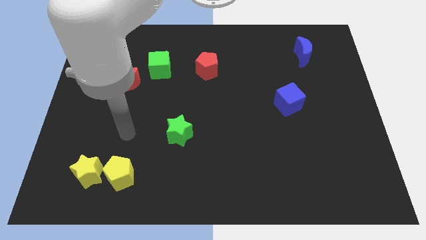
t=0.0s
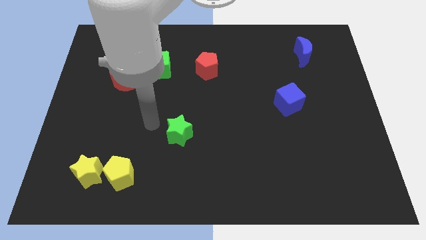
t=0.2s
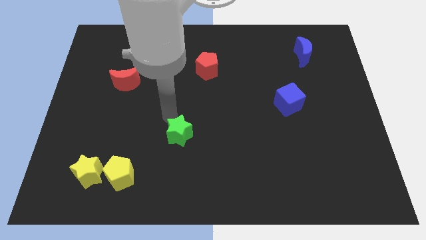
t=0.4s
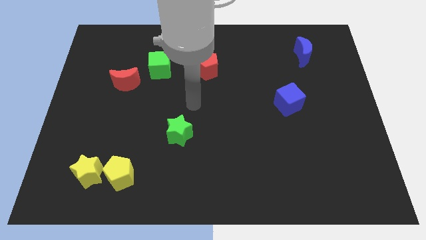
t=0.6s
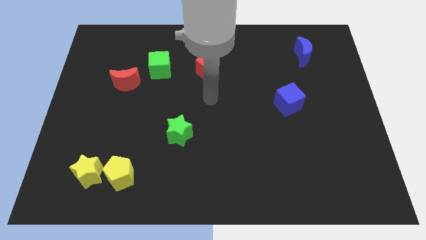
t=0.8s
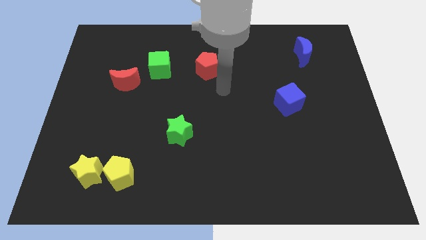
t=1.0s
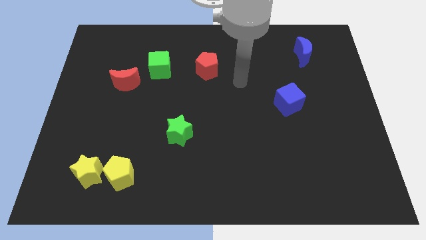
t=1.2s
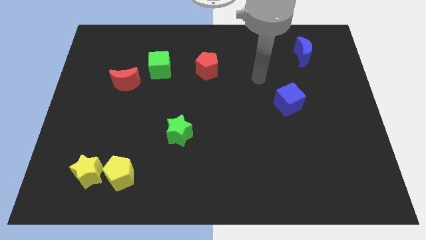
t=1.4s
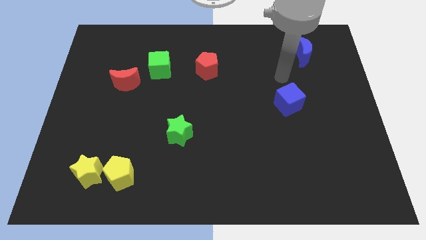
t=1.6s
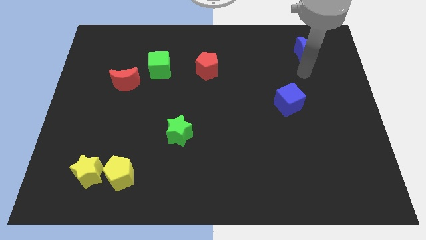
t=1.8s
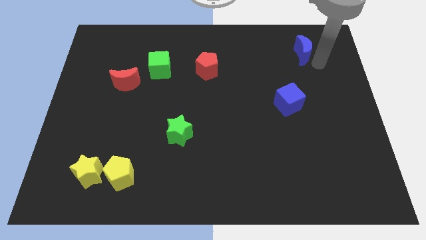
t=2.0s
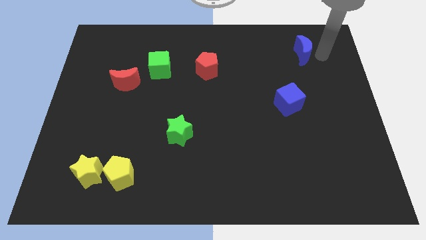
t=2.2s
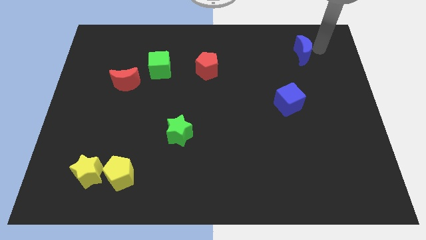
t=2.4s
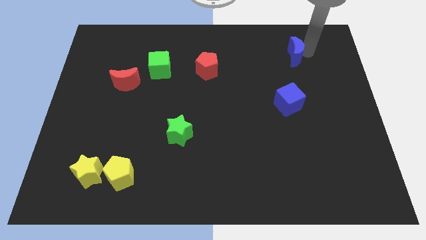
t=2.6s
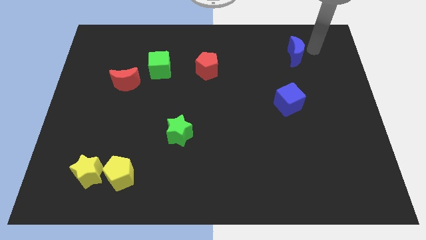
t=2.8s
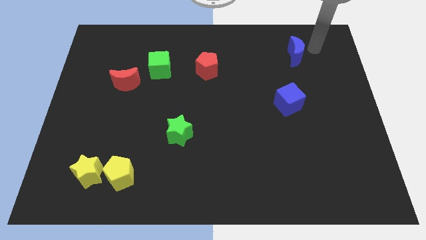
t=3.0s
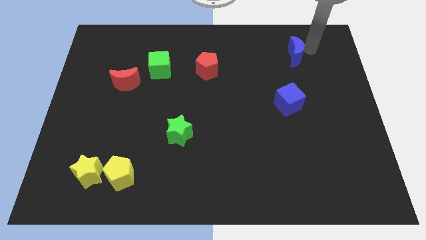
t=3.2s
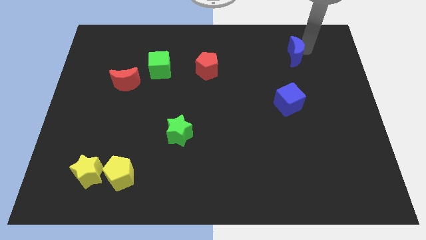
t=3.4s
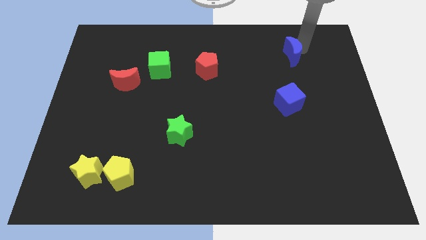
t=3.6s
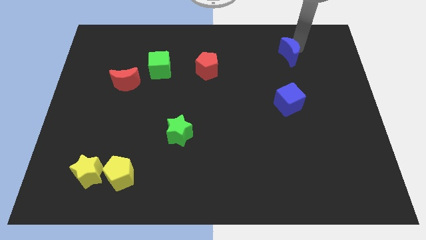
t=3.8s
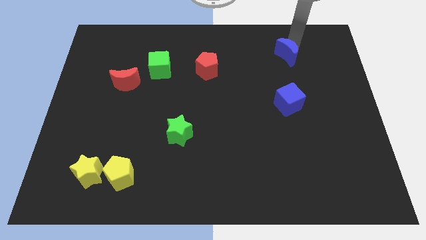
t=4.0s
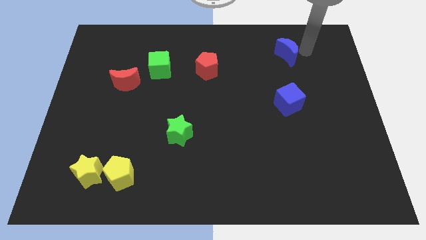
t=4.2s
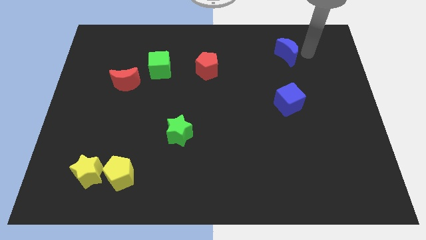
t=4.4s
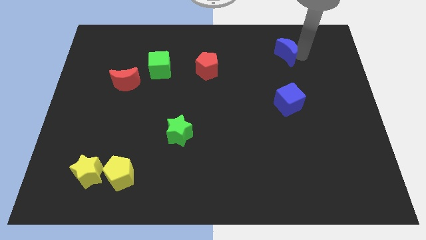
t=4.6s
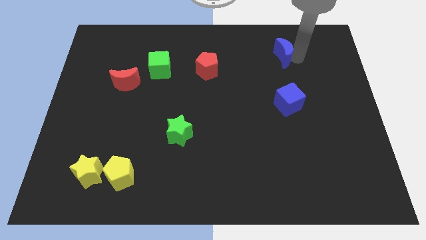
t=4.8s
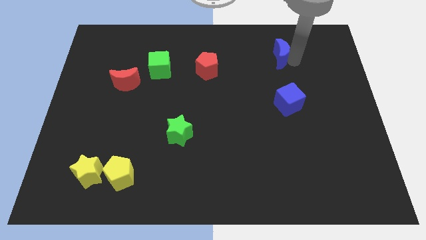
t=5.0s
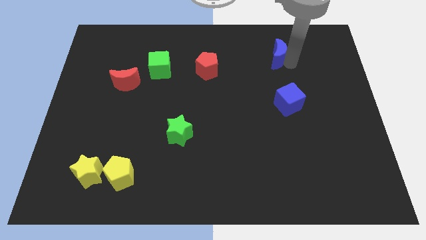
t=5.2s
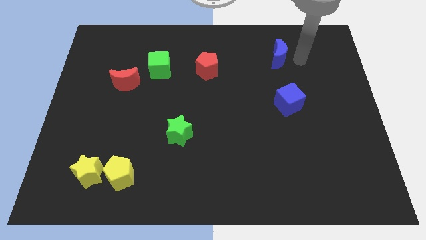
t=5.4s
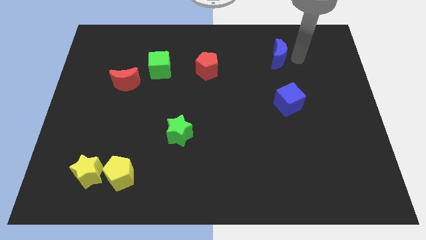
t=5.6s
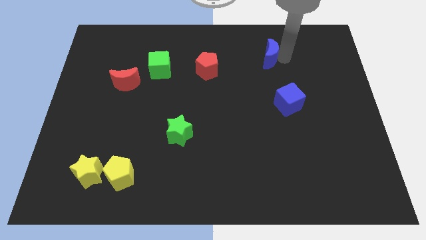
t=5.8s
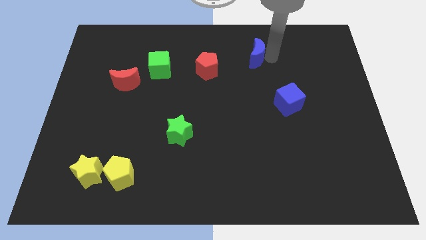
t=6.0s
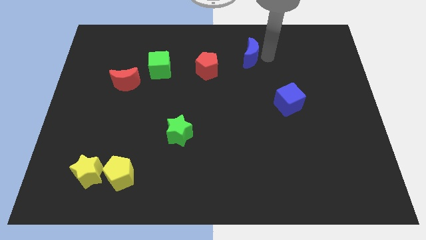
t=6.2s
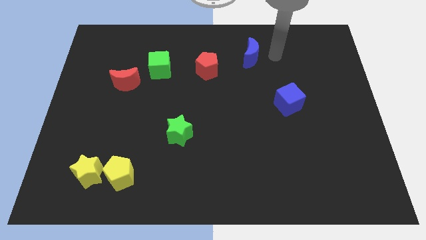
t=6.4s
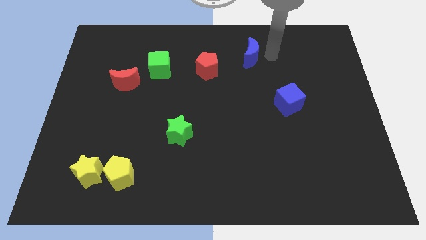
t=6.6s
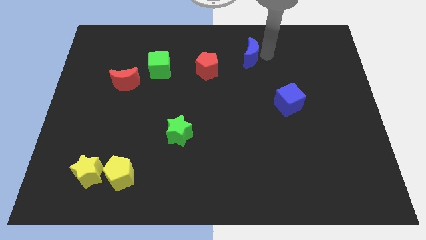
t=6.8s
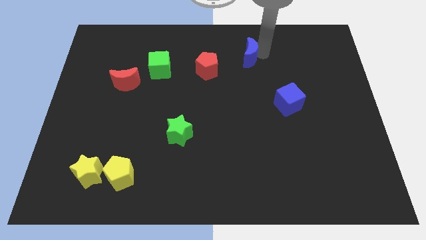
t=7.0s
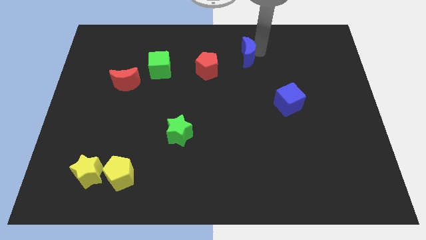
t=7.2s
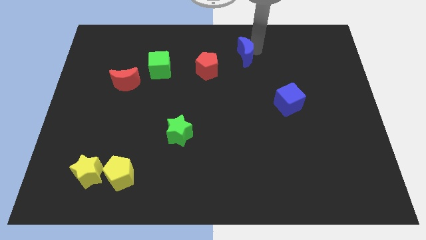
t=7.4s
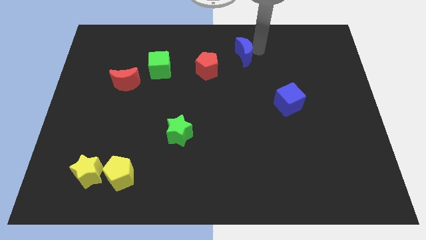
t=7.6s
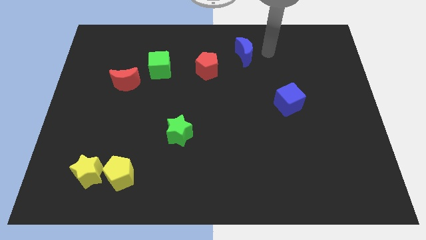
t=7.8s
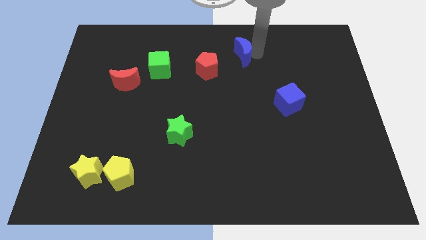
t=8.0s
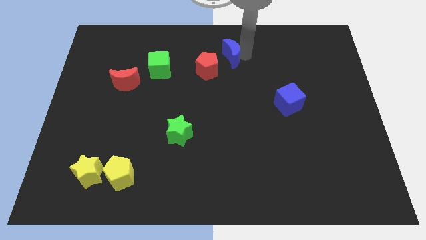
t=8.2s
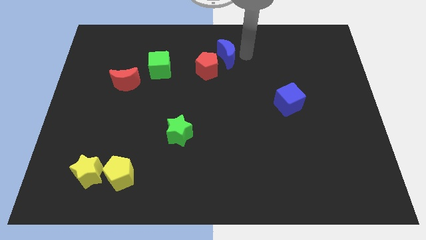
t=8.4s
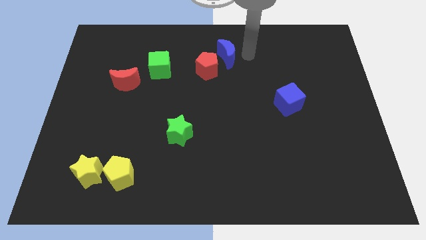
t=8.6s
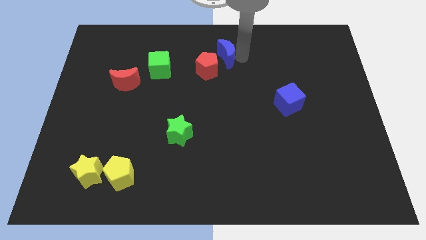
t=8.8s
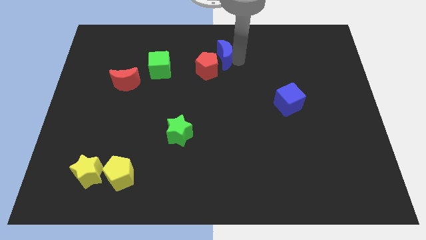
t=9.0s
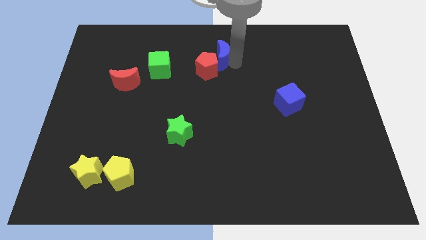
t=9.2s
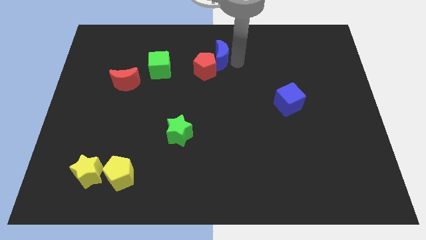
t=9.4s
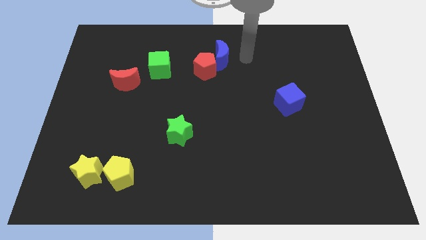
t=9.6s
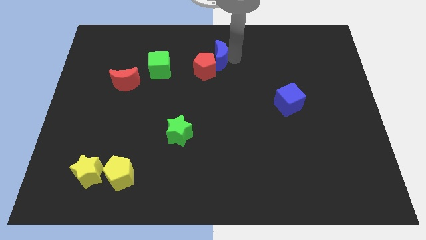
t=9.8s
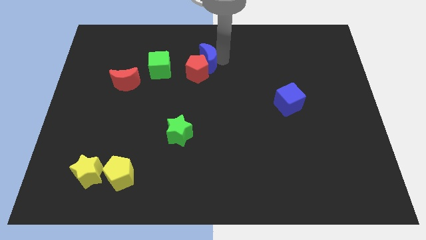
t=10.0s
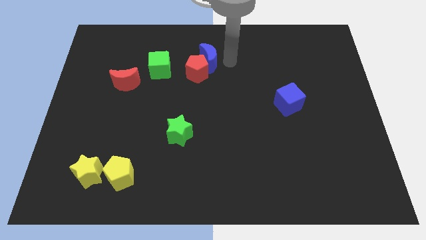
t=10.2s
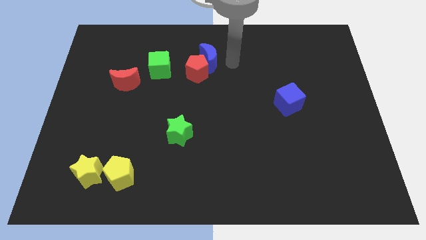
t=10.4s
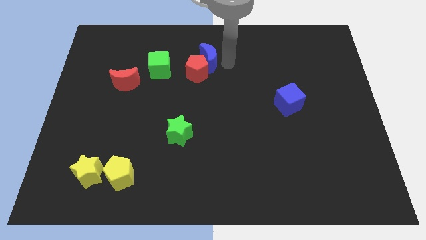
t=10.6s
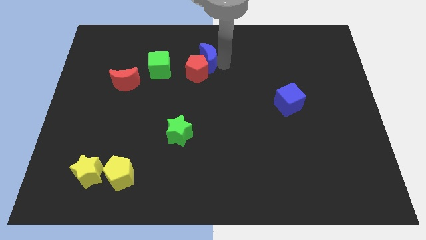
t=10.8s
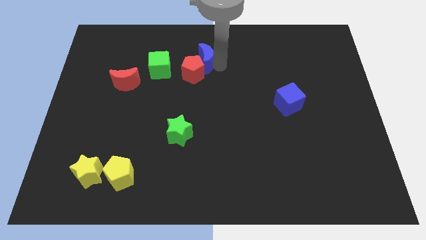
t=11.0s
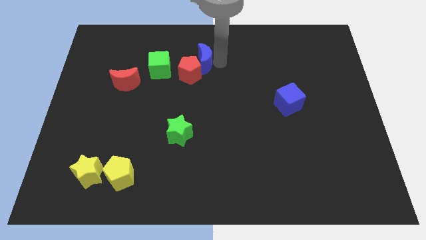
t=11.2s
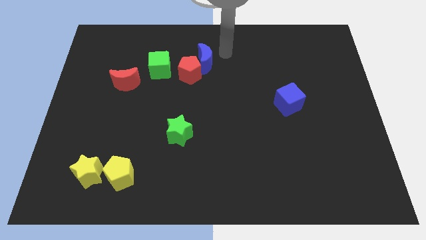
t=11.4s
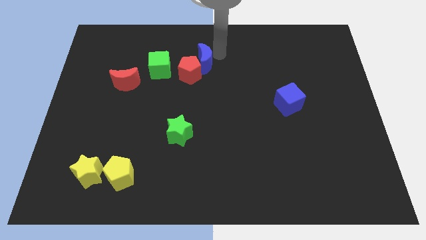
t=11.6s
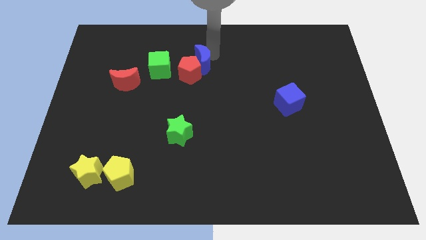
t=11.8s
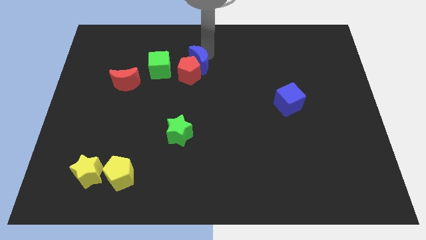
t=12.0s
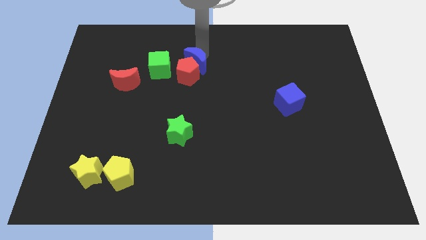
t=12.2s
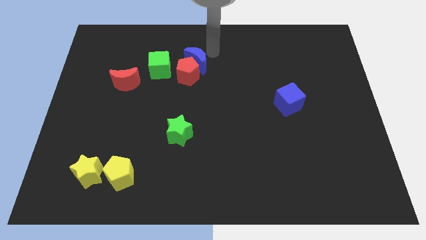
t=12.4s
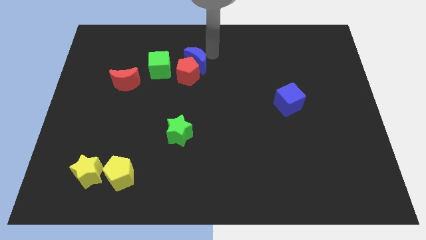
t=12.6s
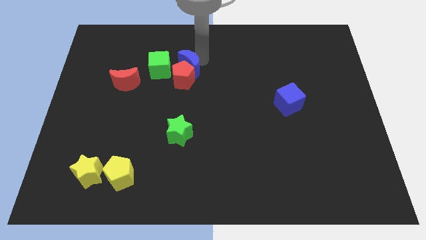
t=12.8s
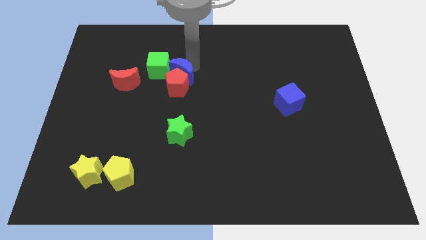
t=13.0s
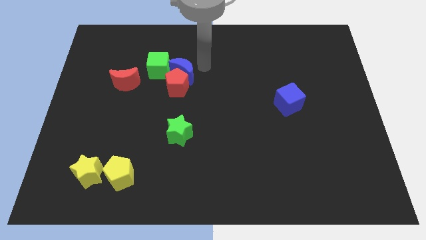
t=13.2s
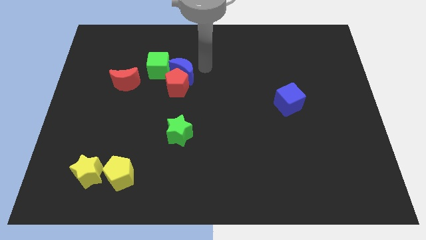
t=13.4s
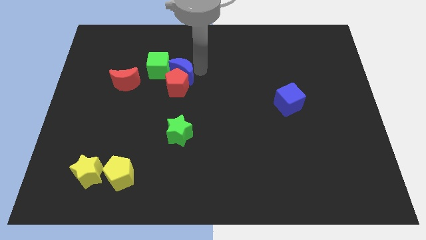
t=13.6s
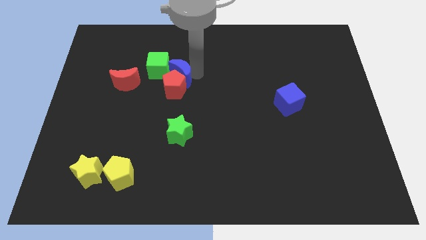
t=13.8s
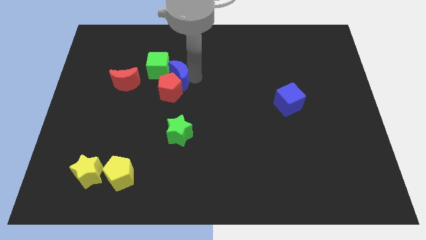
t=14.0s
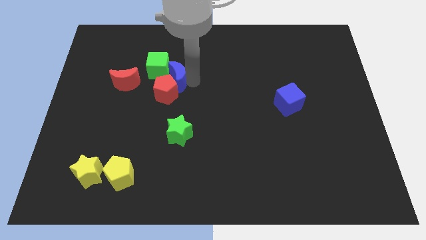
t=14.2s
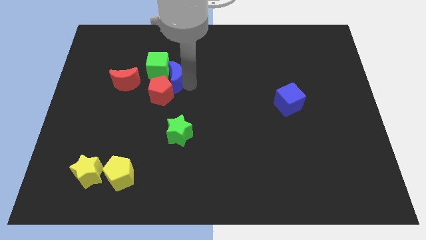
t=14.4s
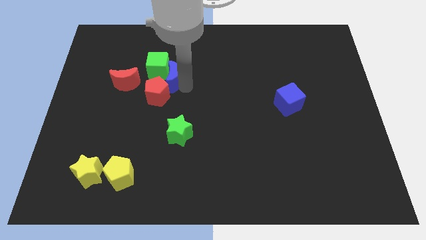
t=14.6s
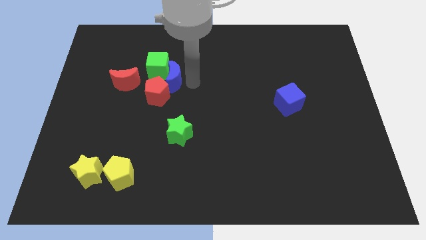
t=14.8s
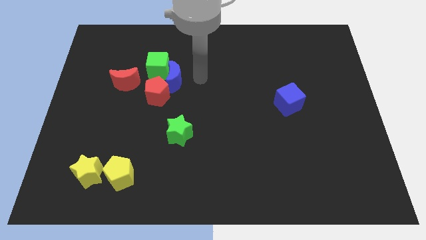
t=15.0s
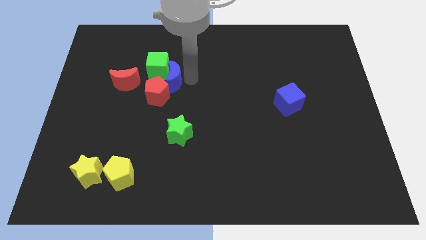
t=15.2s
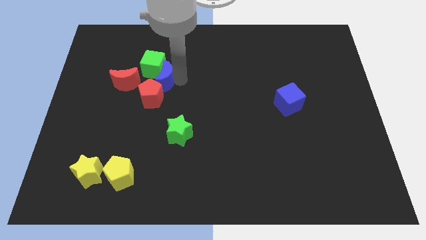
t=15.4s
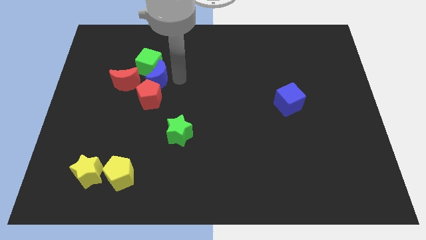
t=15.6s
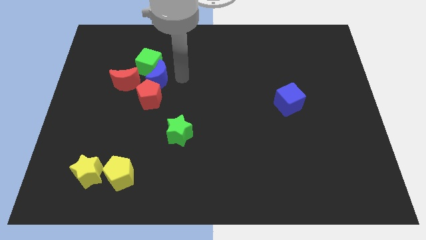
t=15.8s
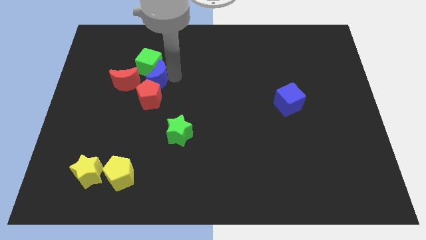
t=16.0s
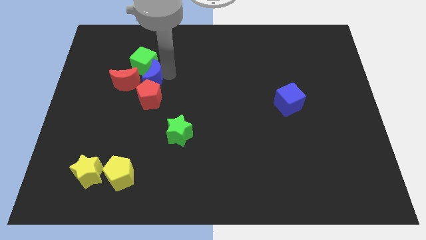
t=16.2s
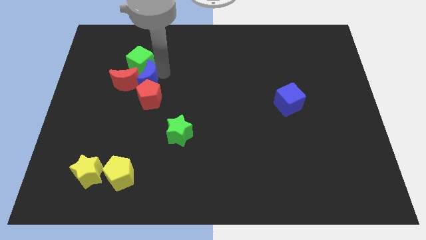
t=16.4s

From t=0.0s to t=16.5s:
slide the blue moon towards the red moon
